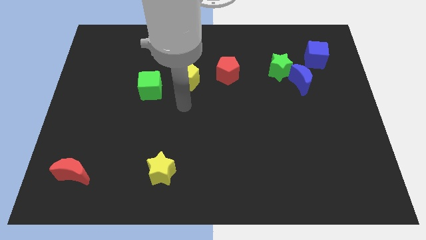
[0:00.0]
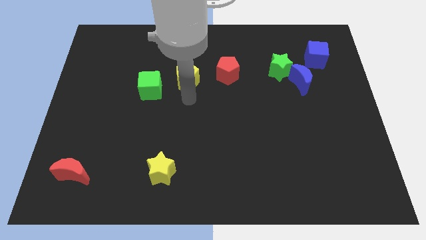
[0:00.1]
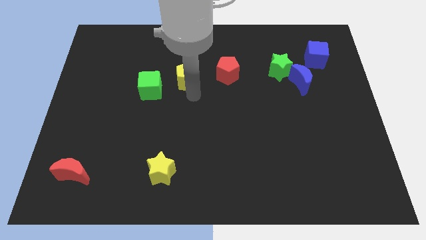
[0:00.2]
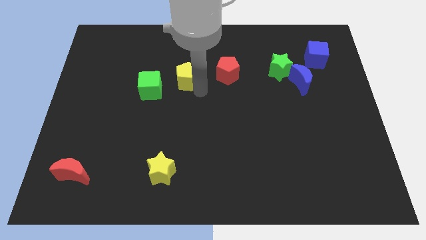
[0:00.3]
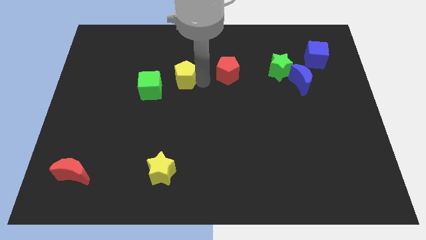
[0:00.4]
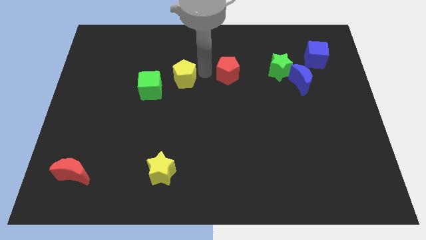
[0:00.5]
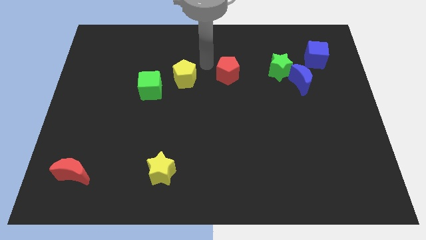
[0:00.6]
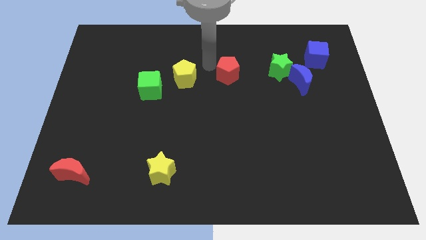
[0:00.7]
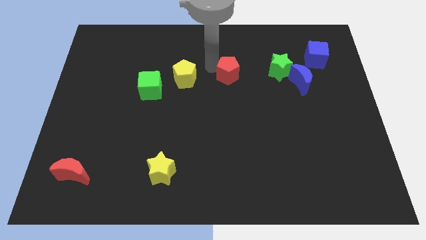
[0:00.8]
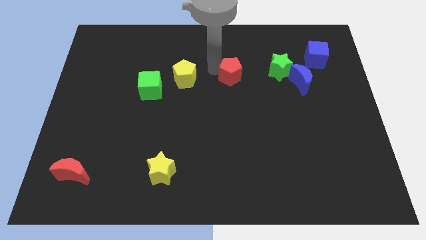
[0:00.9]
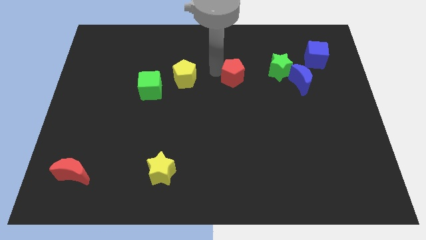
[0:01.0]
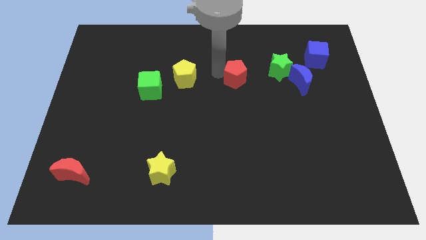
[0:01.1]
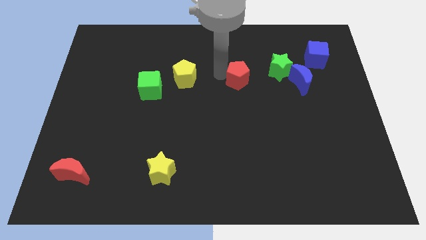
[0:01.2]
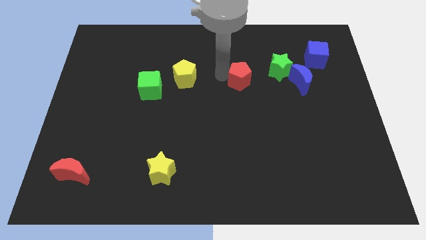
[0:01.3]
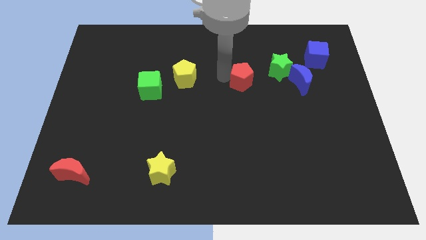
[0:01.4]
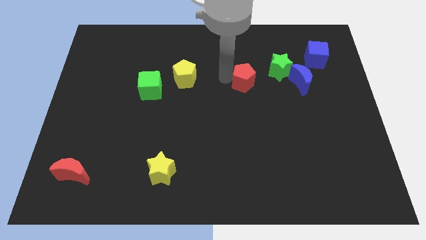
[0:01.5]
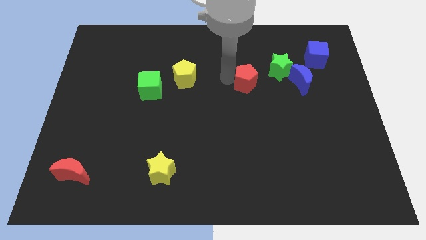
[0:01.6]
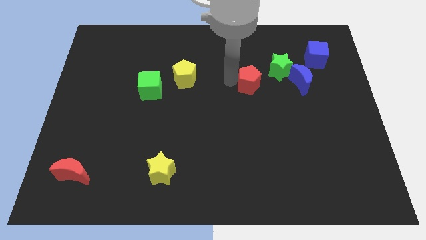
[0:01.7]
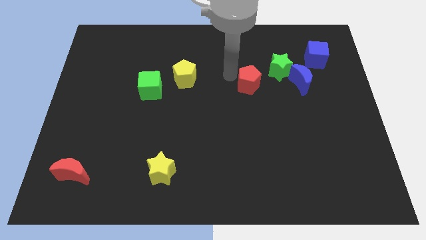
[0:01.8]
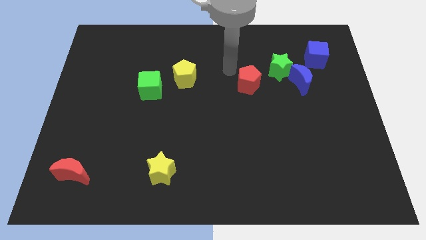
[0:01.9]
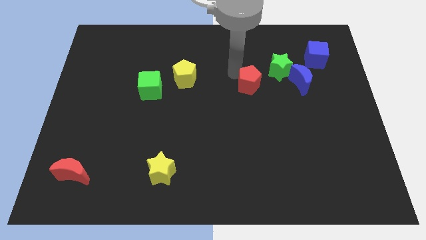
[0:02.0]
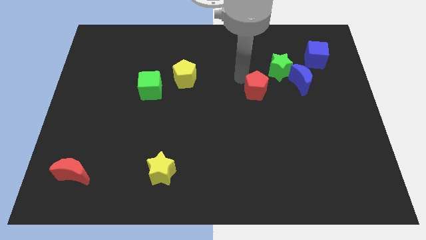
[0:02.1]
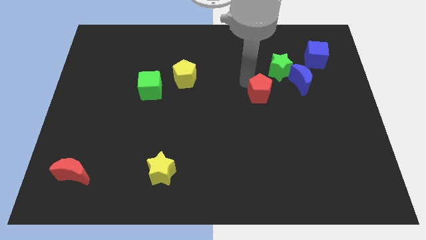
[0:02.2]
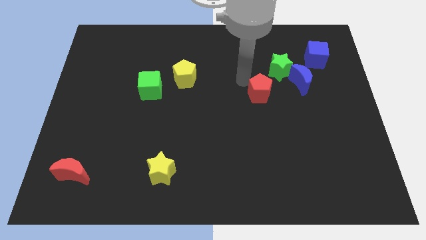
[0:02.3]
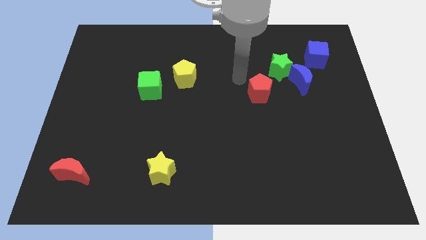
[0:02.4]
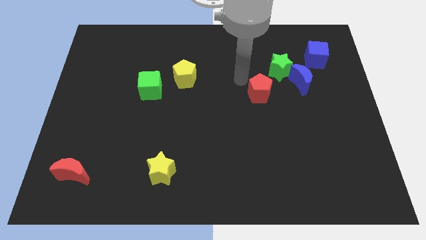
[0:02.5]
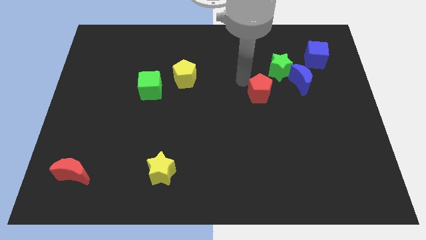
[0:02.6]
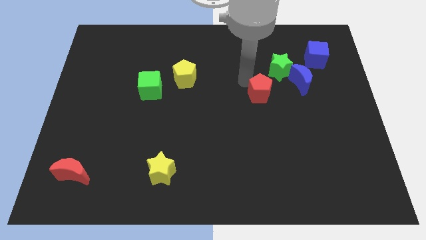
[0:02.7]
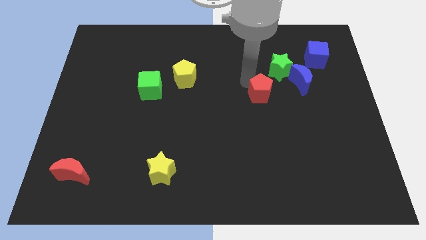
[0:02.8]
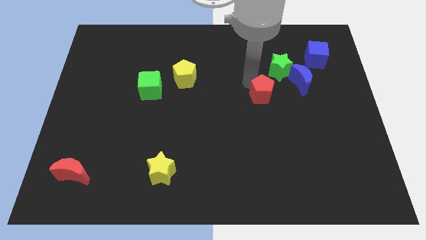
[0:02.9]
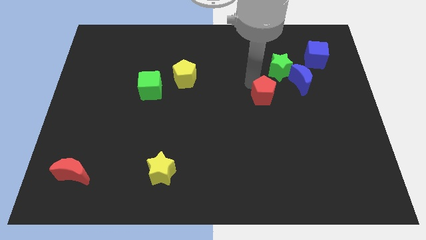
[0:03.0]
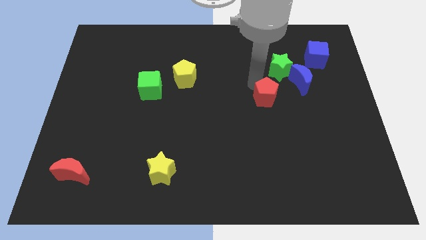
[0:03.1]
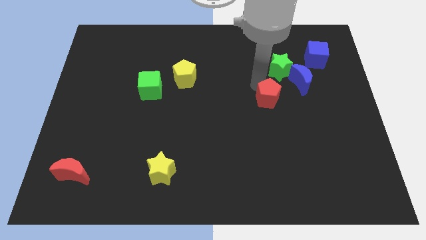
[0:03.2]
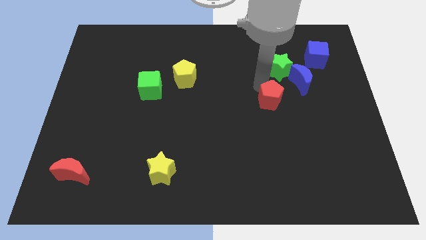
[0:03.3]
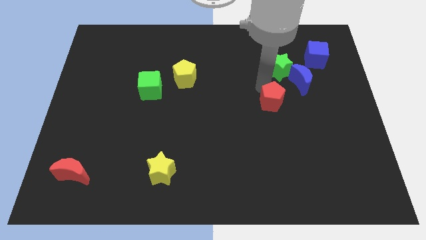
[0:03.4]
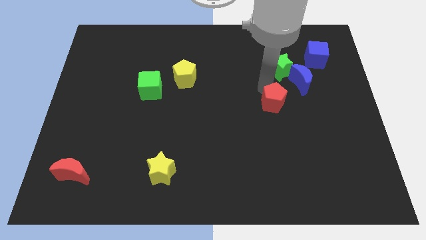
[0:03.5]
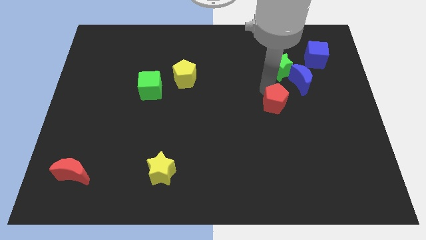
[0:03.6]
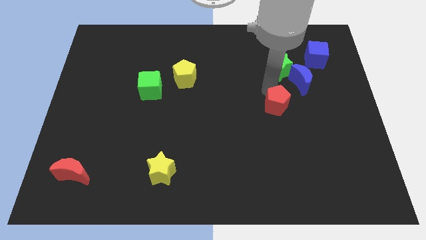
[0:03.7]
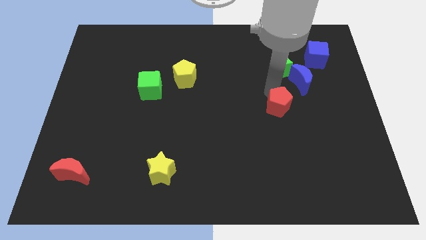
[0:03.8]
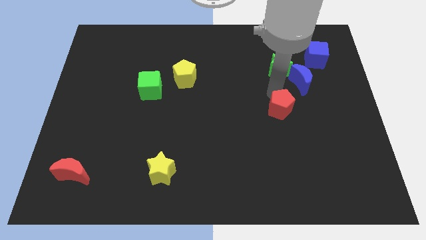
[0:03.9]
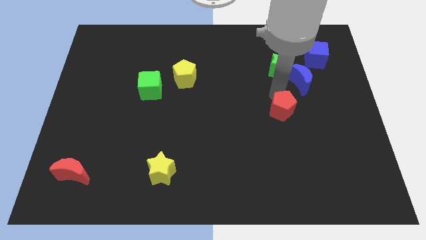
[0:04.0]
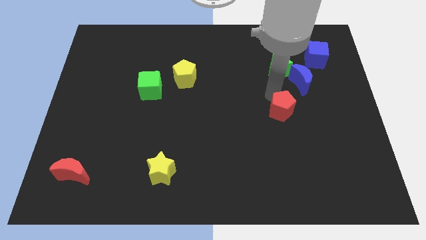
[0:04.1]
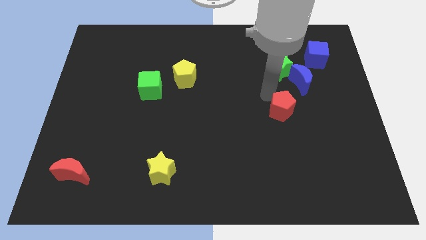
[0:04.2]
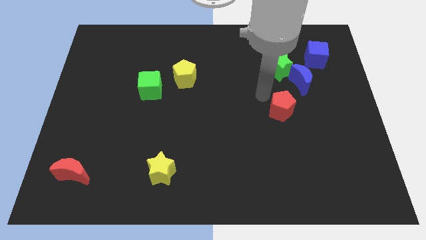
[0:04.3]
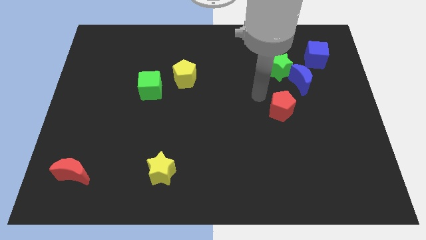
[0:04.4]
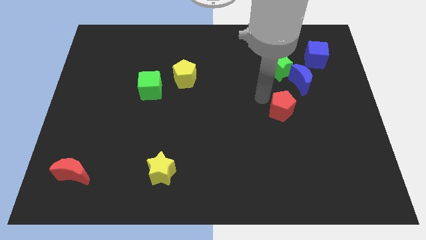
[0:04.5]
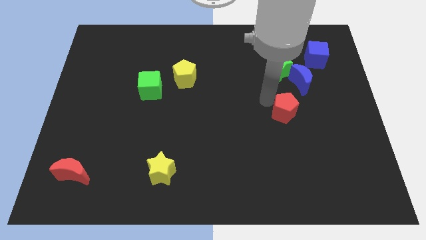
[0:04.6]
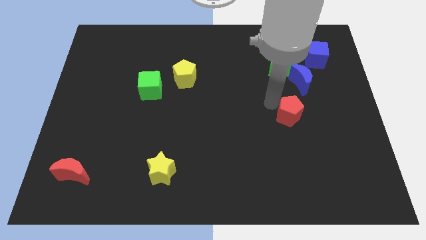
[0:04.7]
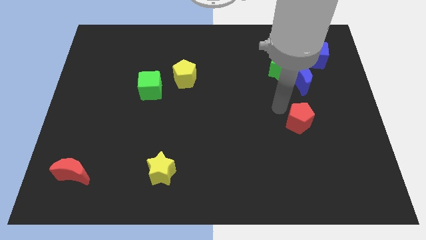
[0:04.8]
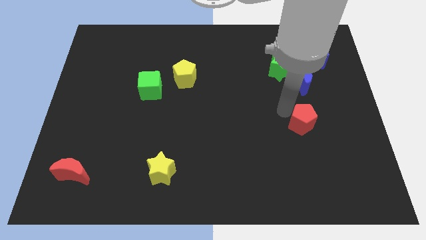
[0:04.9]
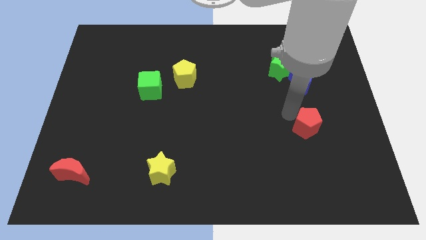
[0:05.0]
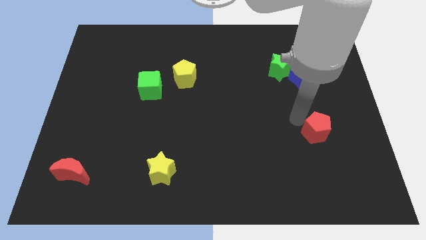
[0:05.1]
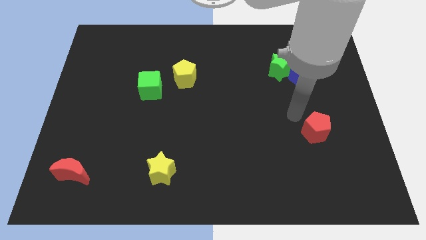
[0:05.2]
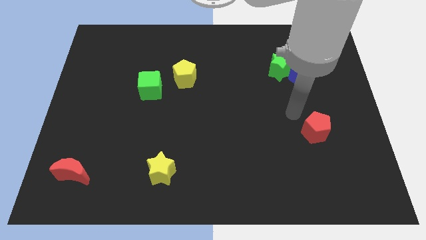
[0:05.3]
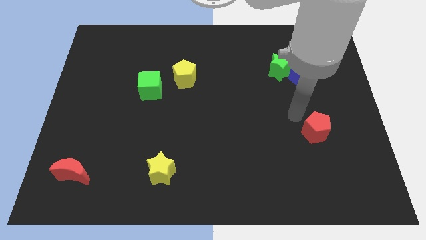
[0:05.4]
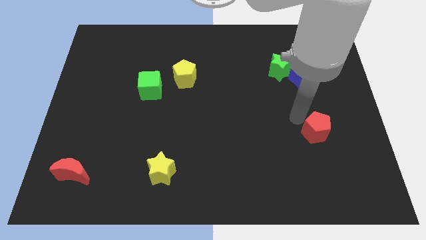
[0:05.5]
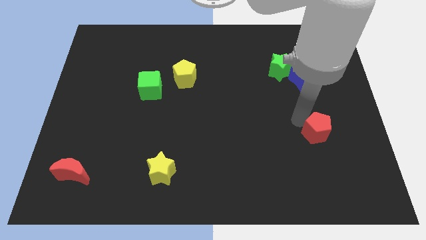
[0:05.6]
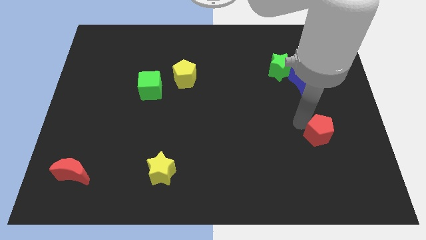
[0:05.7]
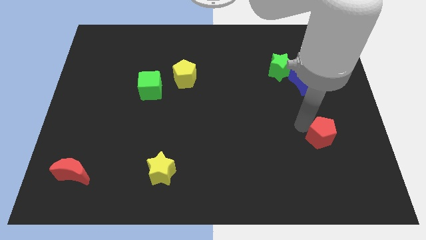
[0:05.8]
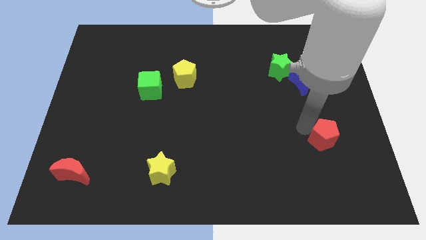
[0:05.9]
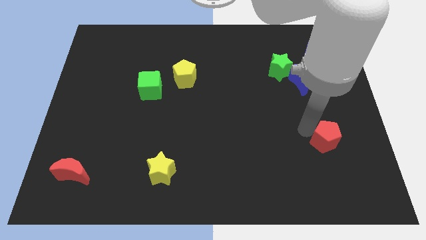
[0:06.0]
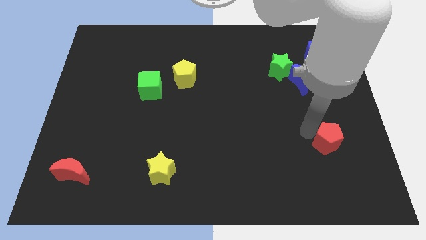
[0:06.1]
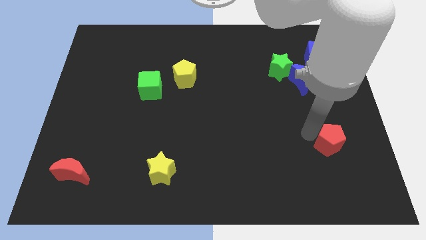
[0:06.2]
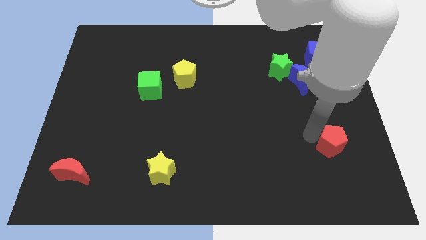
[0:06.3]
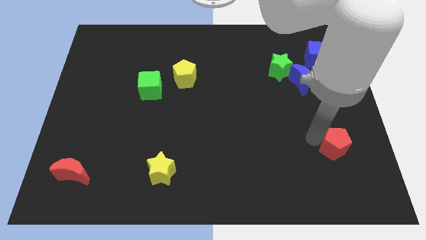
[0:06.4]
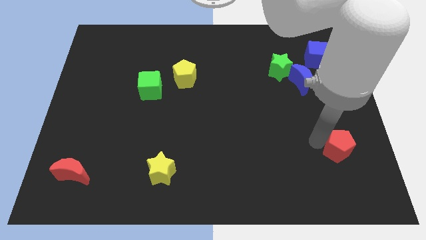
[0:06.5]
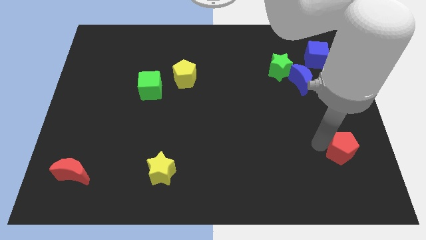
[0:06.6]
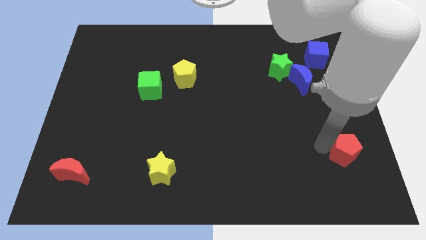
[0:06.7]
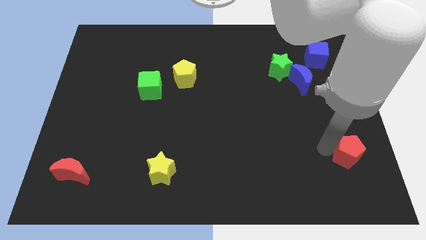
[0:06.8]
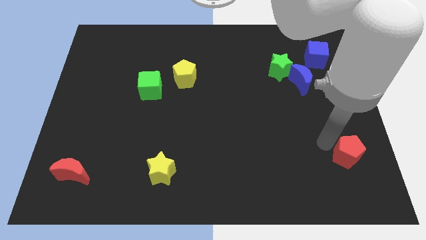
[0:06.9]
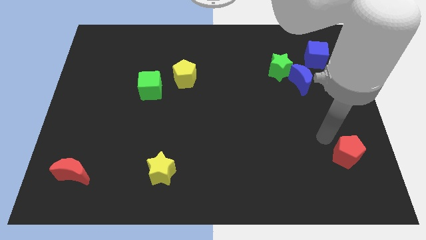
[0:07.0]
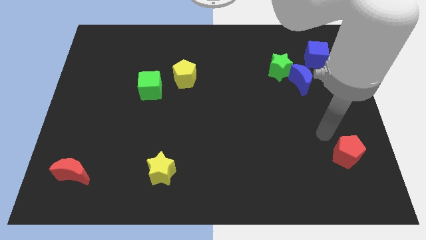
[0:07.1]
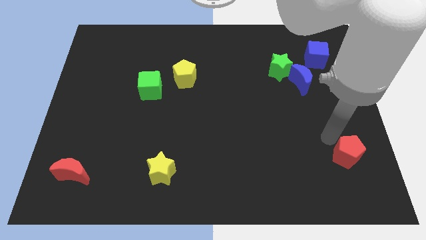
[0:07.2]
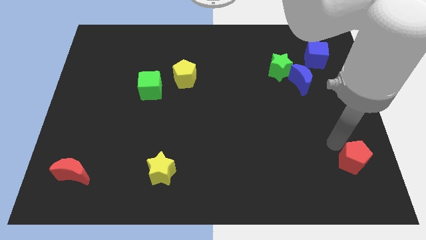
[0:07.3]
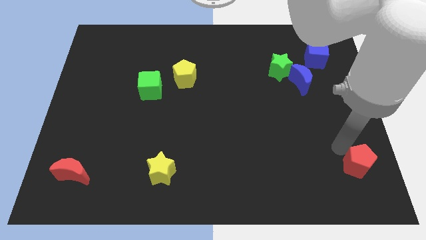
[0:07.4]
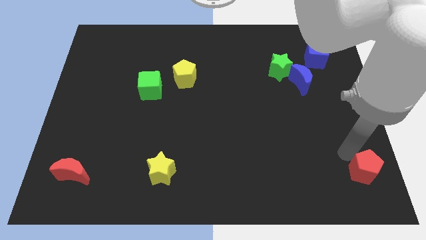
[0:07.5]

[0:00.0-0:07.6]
slide the red pentagon to the lower right corner
